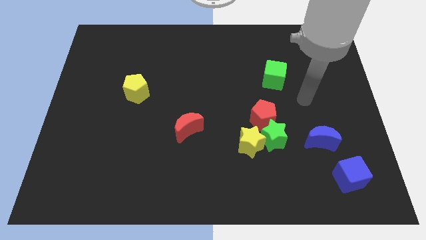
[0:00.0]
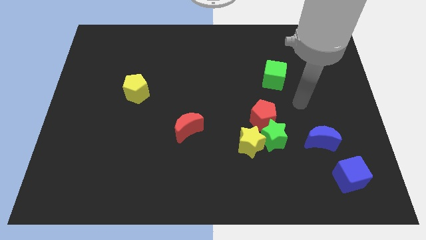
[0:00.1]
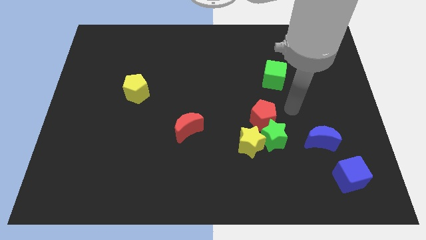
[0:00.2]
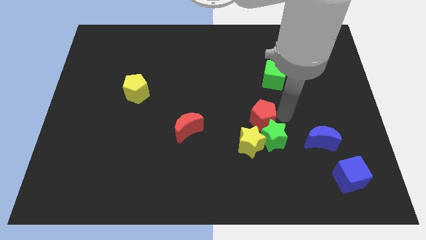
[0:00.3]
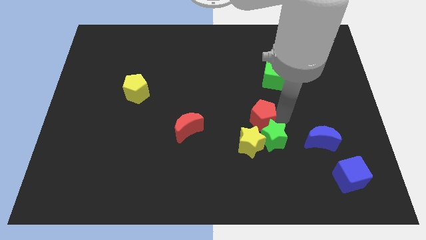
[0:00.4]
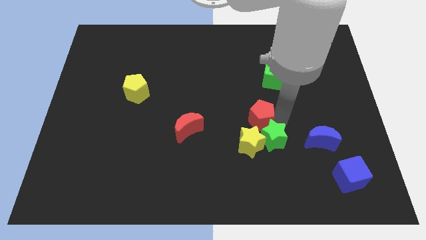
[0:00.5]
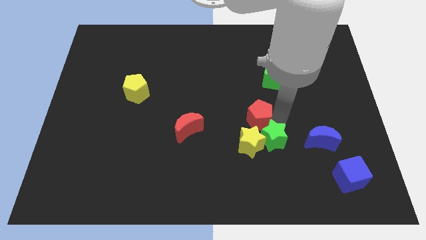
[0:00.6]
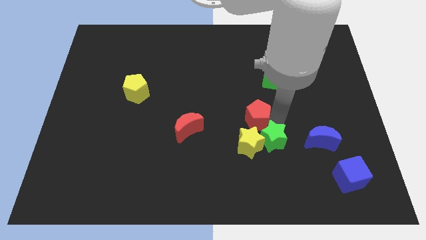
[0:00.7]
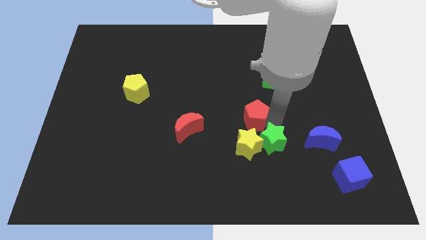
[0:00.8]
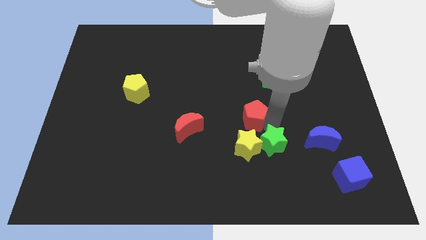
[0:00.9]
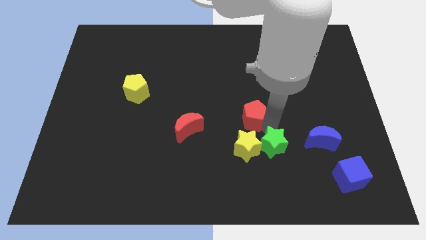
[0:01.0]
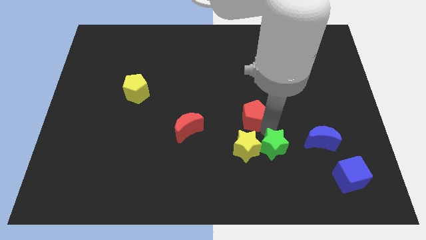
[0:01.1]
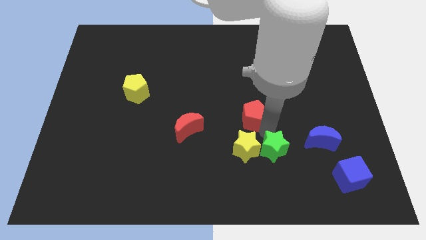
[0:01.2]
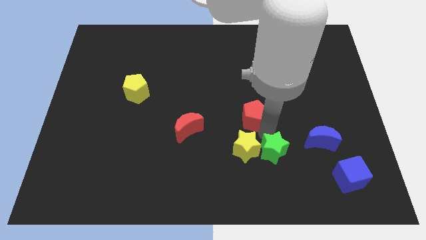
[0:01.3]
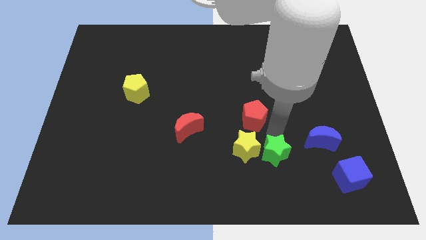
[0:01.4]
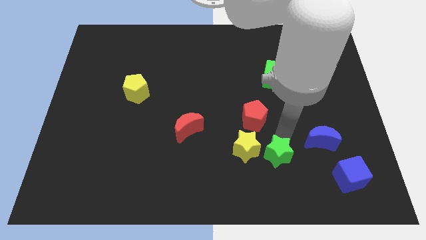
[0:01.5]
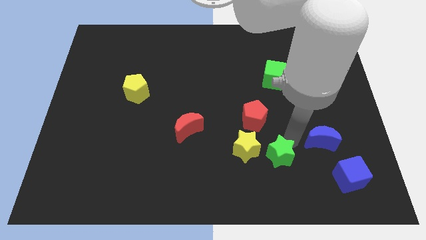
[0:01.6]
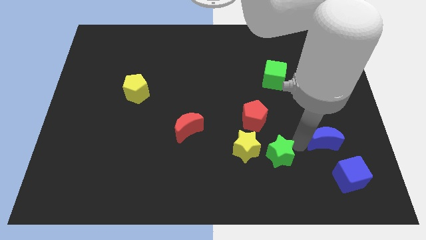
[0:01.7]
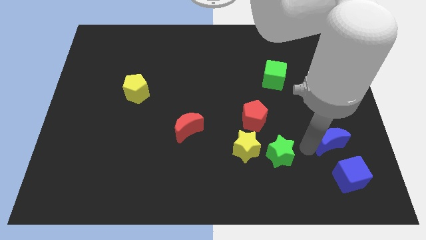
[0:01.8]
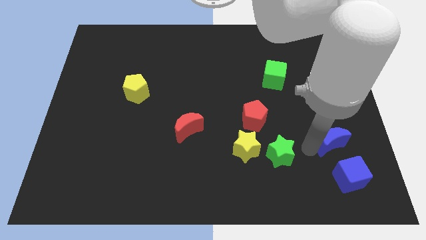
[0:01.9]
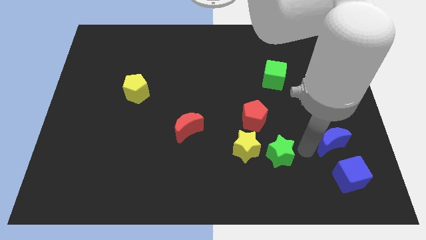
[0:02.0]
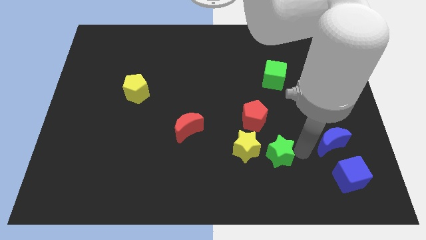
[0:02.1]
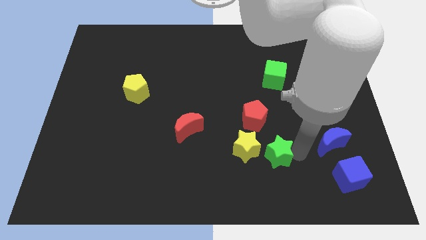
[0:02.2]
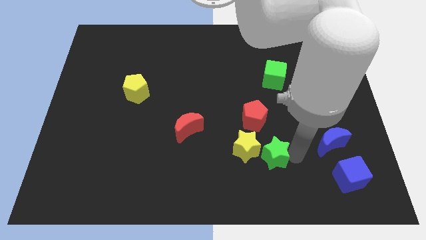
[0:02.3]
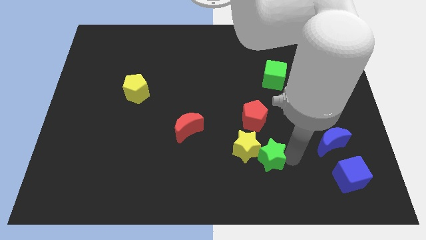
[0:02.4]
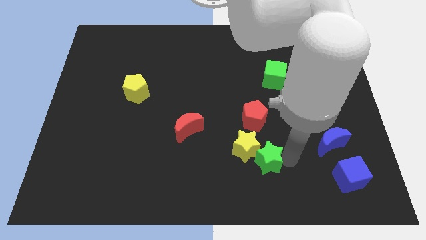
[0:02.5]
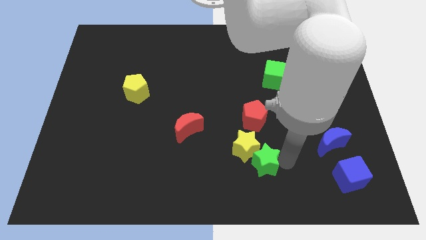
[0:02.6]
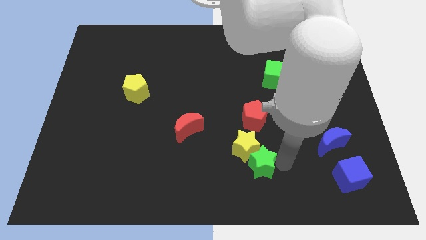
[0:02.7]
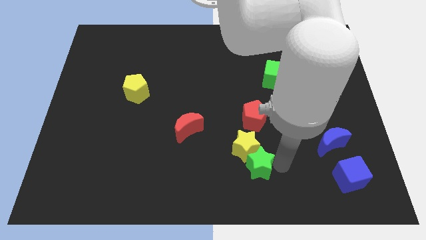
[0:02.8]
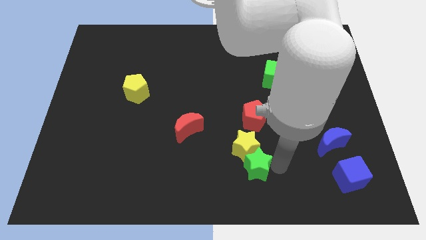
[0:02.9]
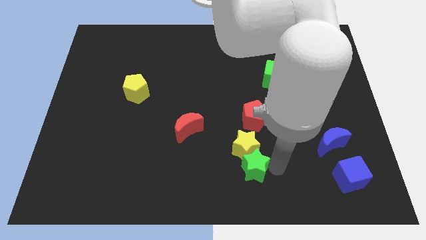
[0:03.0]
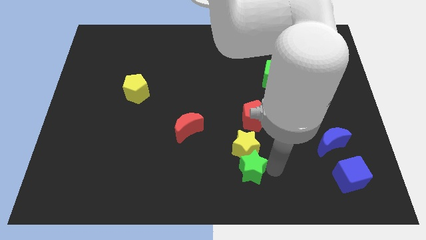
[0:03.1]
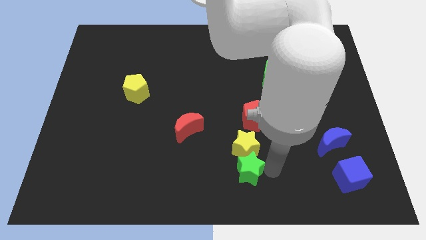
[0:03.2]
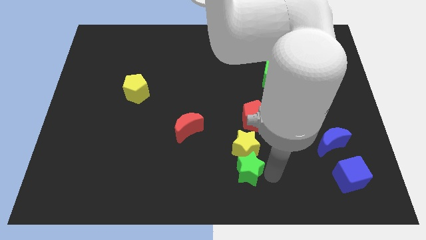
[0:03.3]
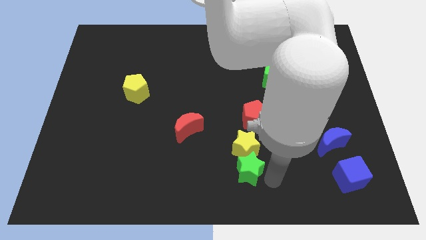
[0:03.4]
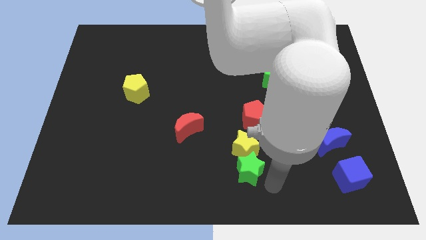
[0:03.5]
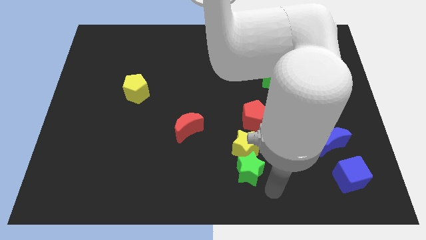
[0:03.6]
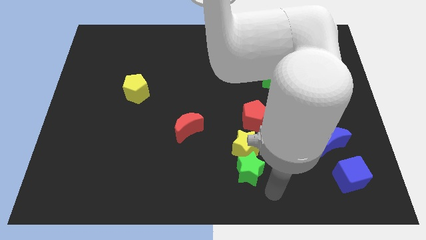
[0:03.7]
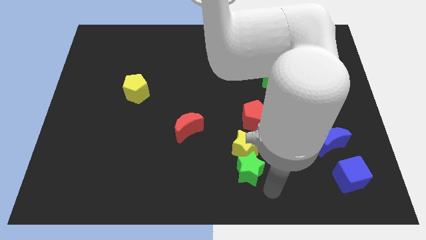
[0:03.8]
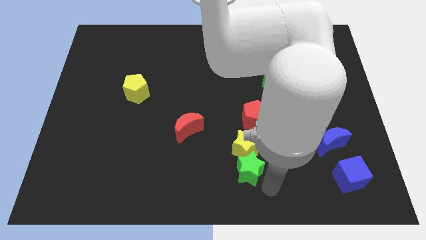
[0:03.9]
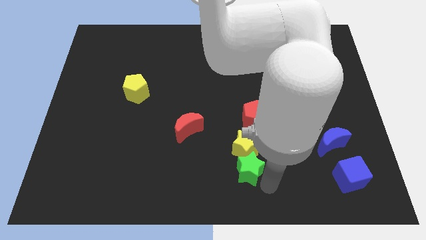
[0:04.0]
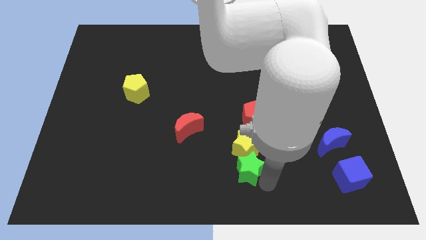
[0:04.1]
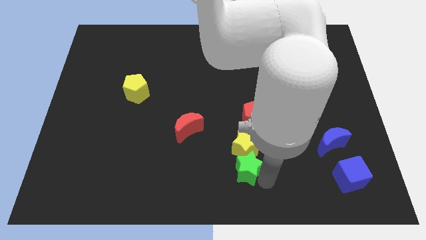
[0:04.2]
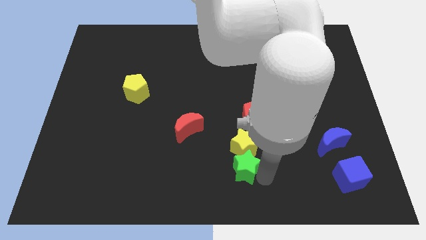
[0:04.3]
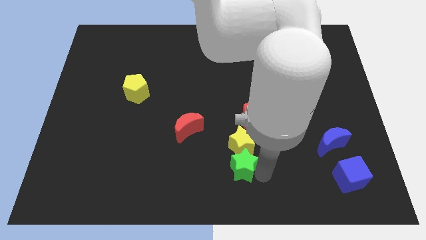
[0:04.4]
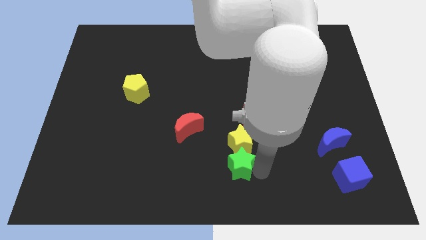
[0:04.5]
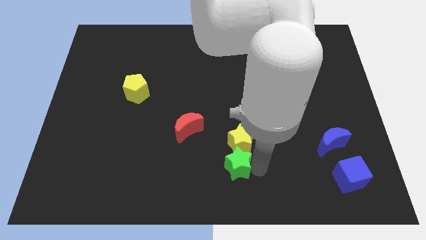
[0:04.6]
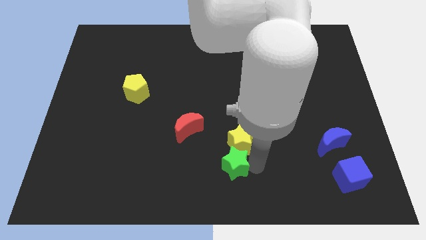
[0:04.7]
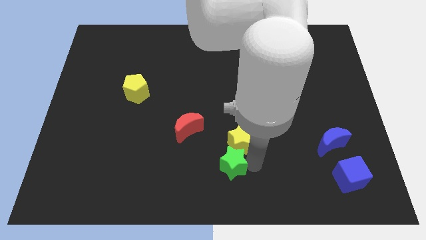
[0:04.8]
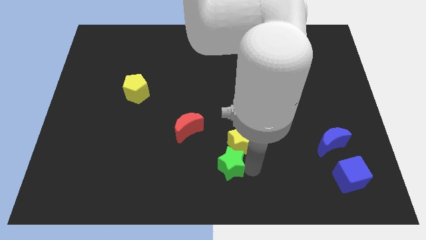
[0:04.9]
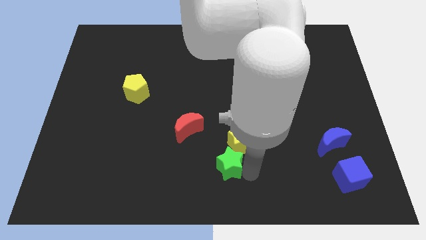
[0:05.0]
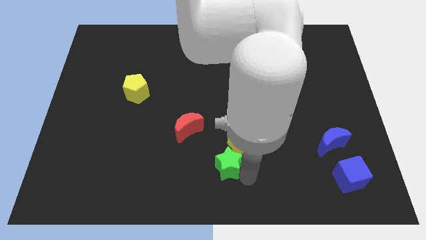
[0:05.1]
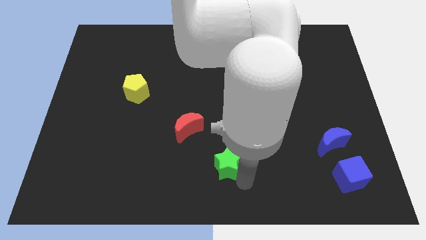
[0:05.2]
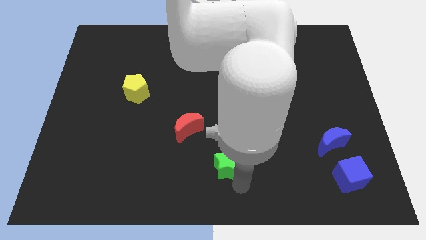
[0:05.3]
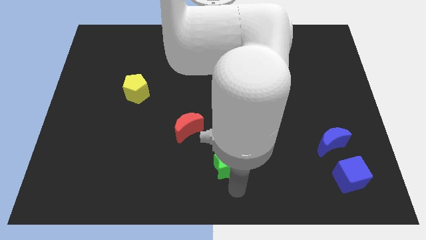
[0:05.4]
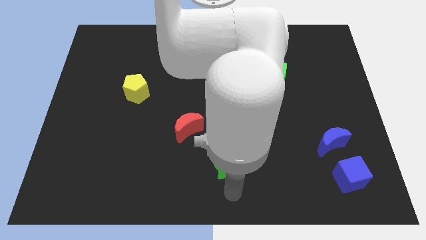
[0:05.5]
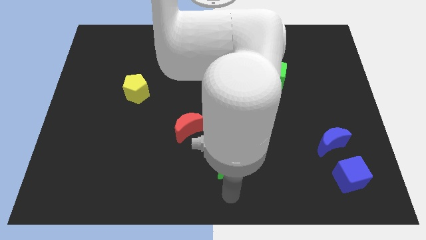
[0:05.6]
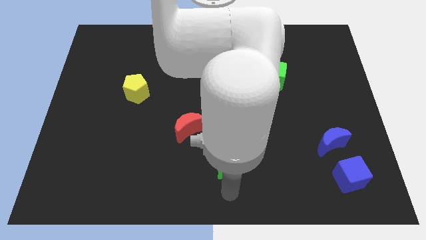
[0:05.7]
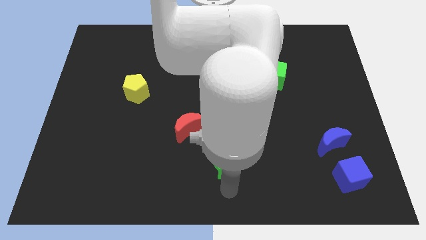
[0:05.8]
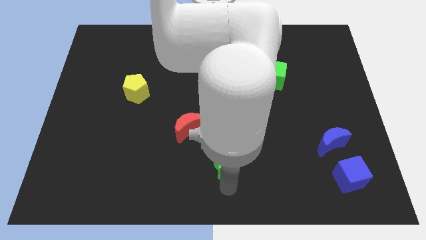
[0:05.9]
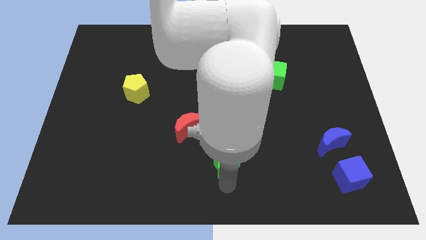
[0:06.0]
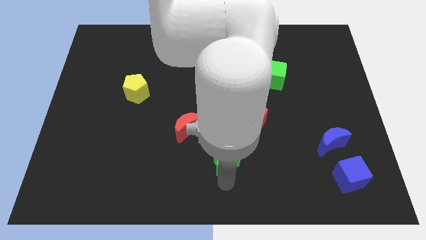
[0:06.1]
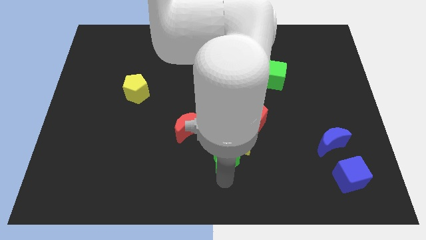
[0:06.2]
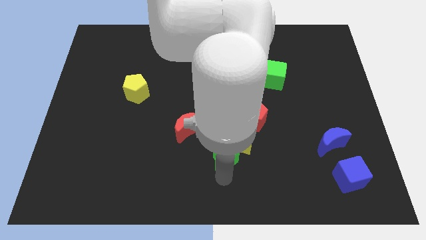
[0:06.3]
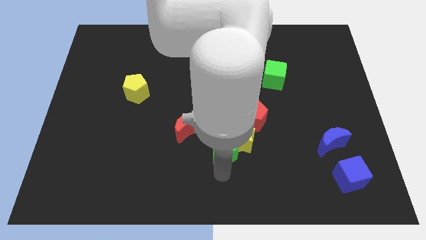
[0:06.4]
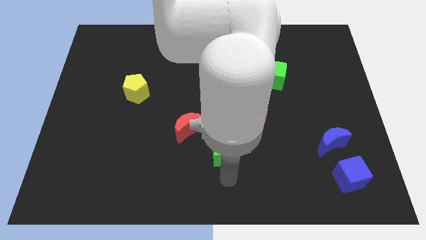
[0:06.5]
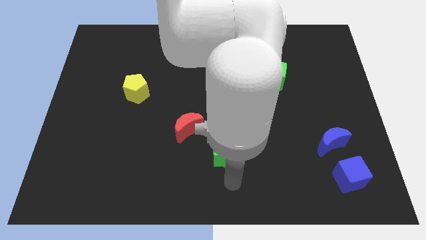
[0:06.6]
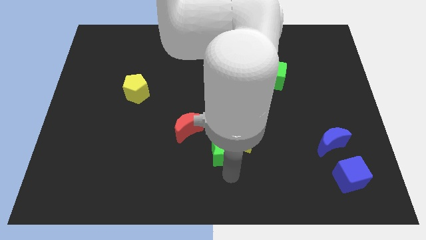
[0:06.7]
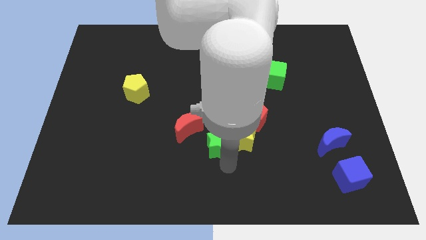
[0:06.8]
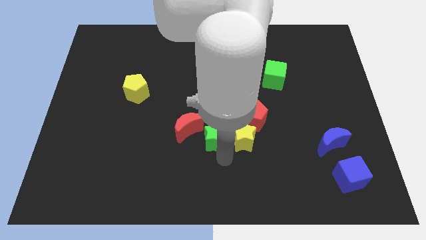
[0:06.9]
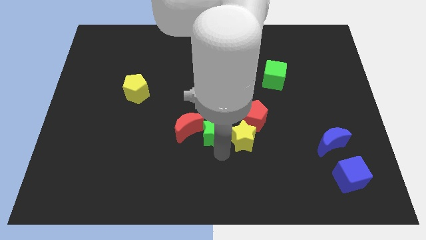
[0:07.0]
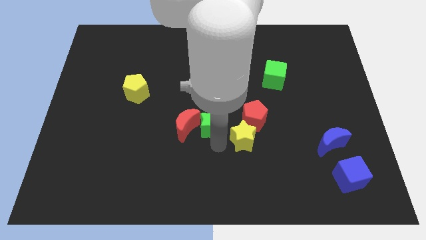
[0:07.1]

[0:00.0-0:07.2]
slightly move the green star up and then to the left

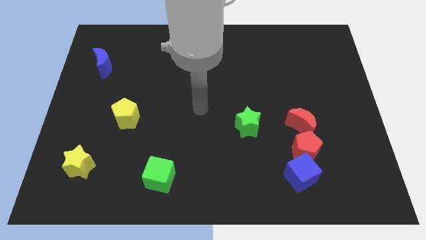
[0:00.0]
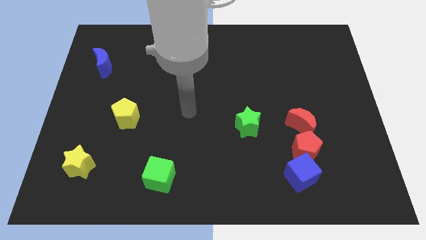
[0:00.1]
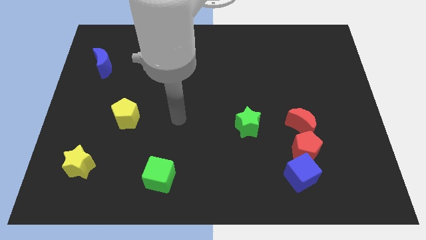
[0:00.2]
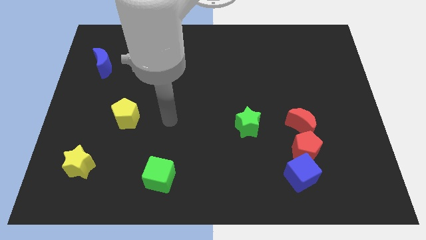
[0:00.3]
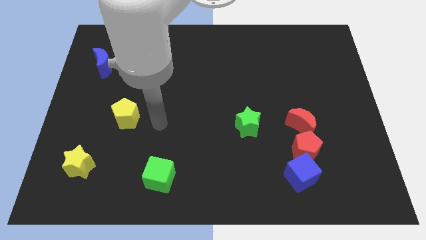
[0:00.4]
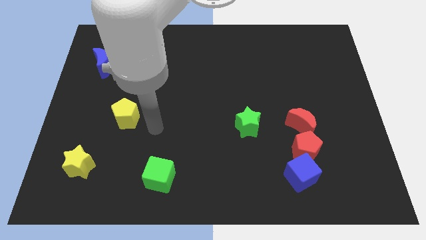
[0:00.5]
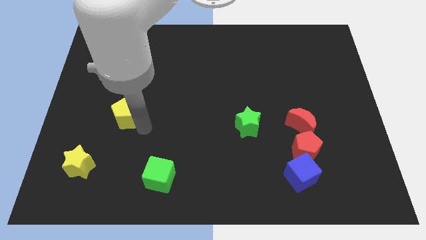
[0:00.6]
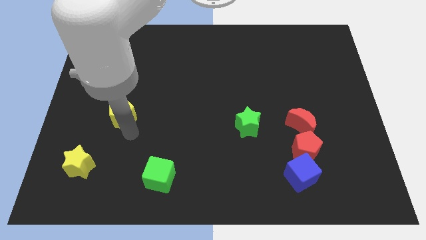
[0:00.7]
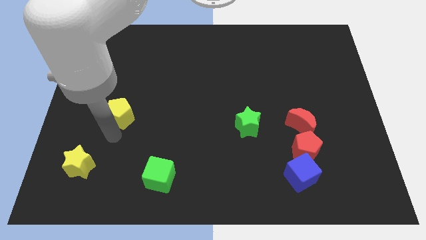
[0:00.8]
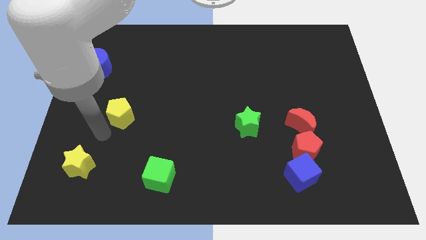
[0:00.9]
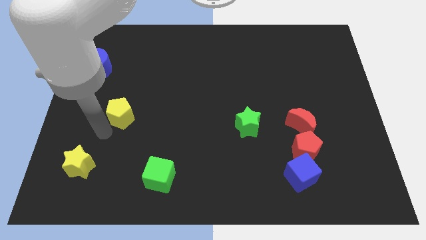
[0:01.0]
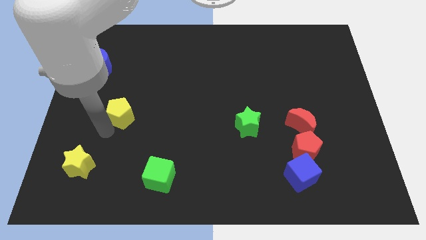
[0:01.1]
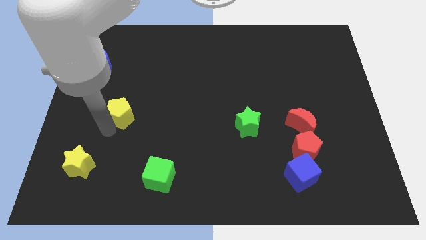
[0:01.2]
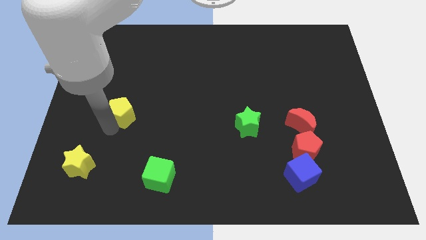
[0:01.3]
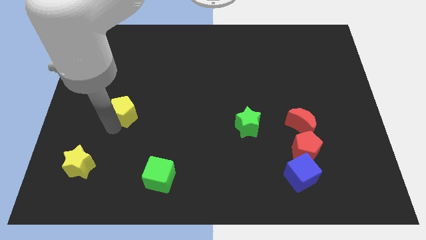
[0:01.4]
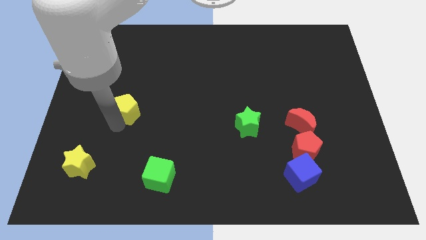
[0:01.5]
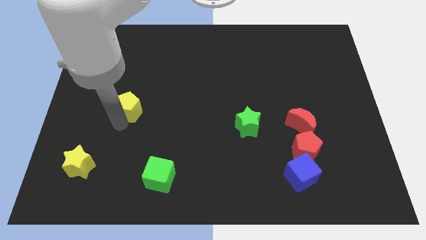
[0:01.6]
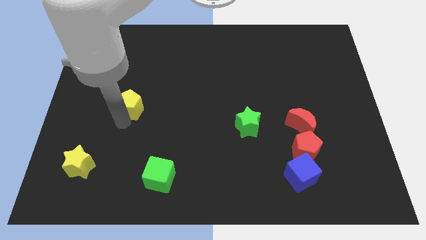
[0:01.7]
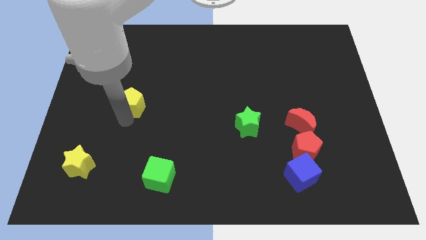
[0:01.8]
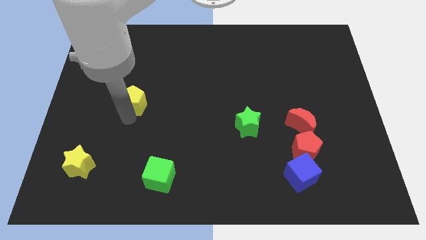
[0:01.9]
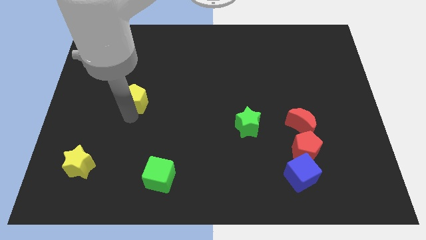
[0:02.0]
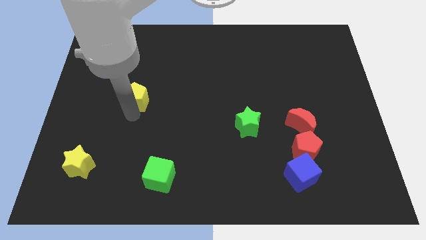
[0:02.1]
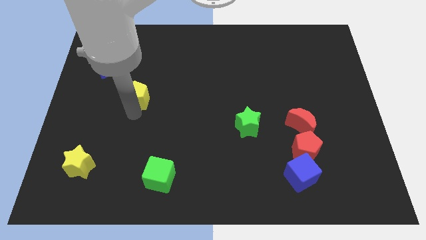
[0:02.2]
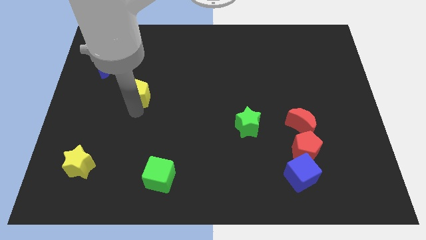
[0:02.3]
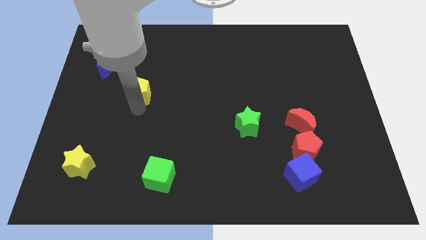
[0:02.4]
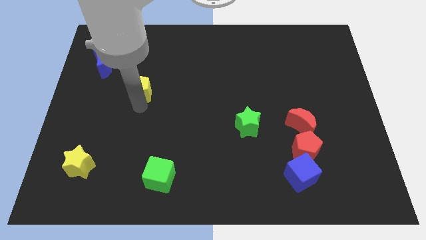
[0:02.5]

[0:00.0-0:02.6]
move the yellow pentagon up a bit
